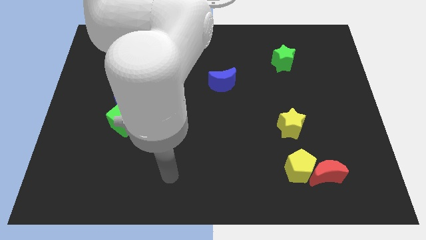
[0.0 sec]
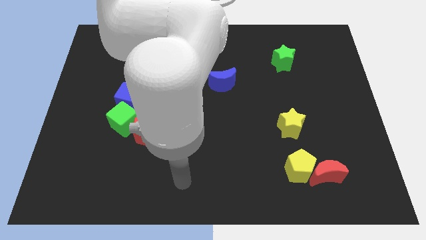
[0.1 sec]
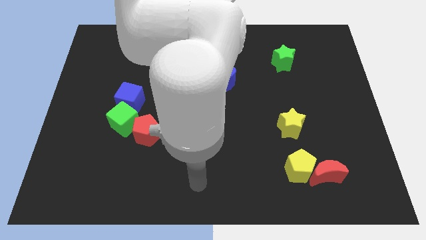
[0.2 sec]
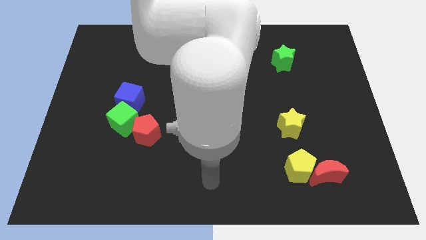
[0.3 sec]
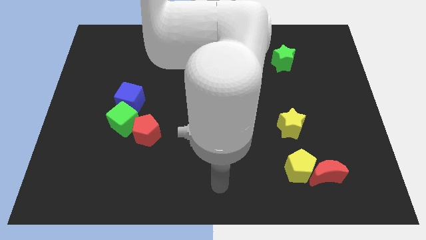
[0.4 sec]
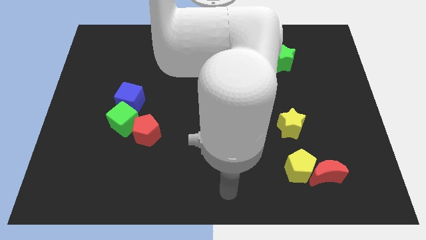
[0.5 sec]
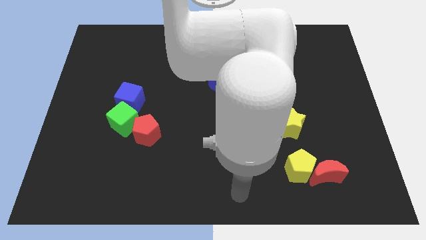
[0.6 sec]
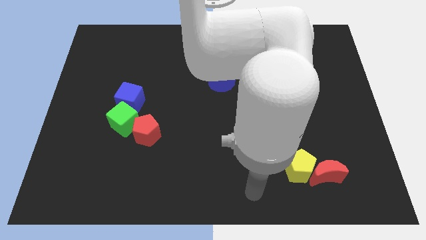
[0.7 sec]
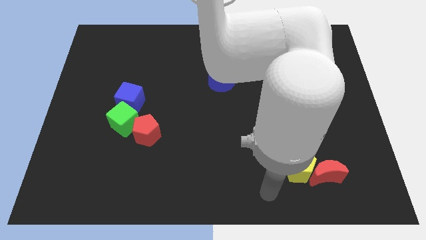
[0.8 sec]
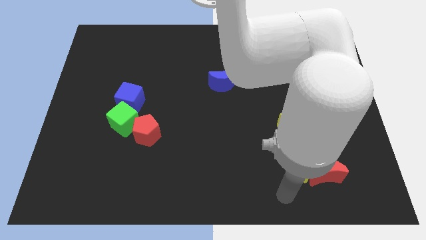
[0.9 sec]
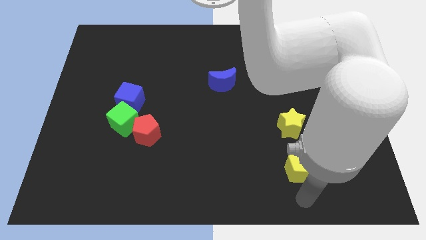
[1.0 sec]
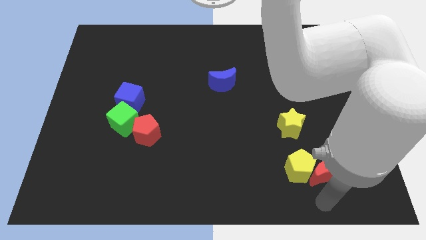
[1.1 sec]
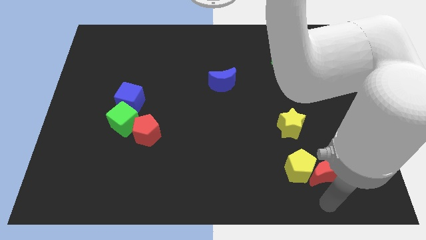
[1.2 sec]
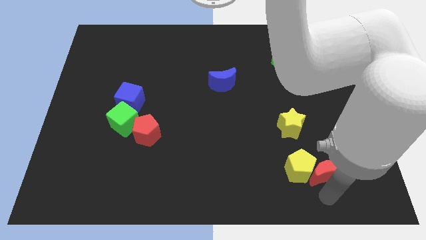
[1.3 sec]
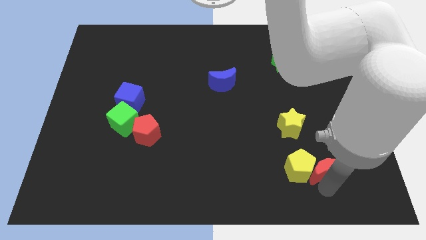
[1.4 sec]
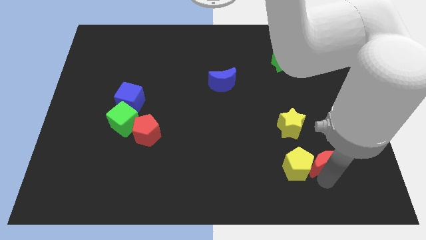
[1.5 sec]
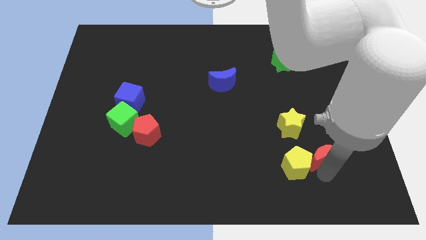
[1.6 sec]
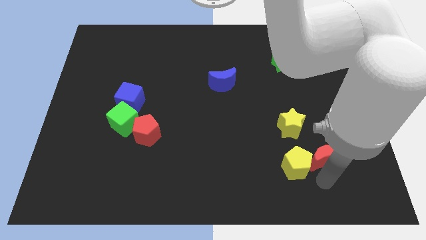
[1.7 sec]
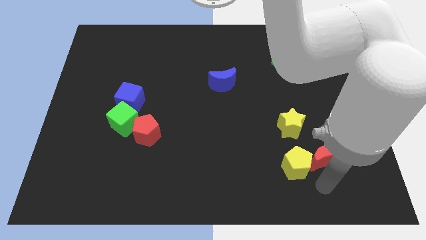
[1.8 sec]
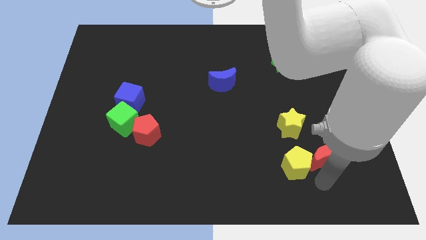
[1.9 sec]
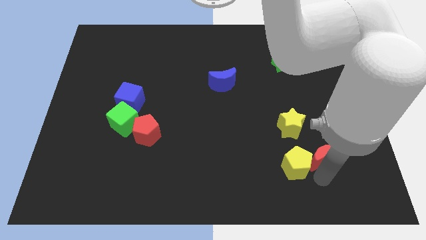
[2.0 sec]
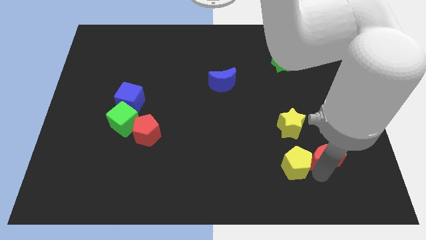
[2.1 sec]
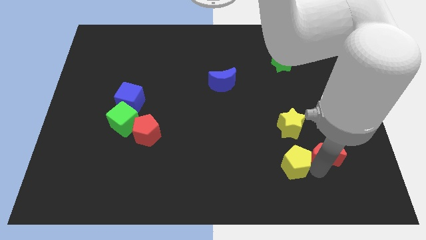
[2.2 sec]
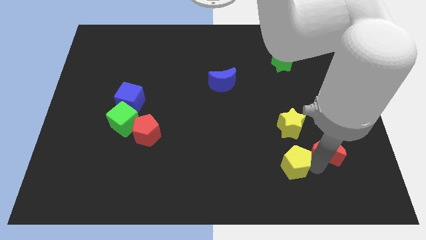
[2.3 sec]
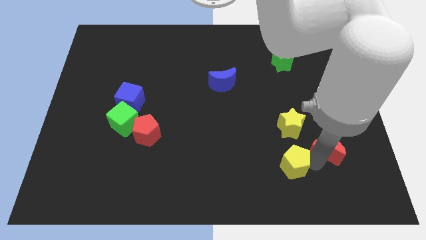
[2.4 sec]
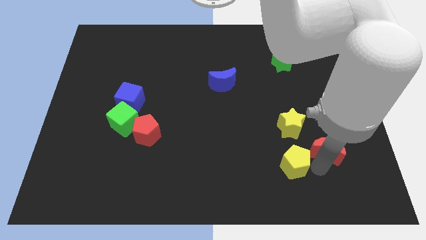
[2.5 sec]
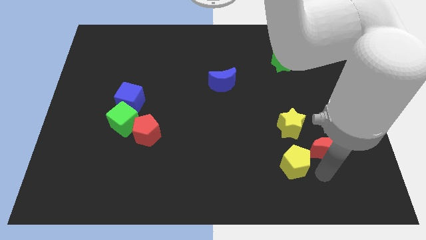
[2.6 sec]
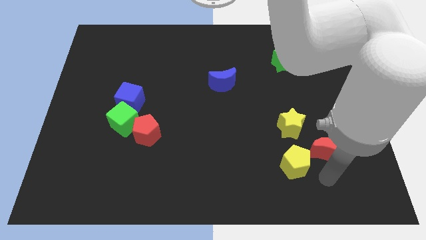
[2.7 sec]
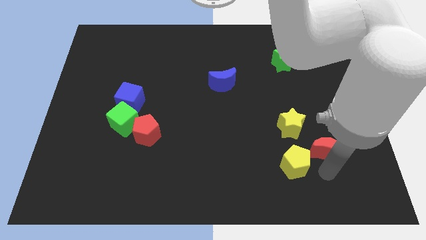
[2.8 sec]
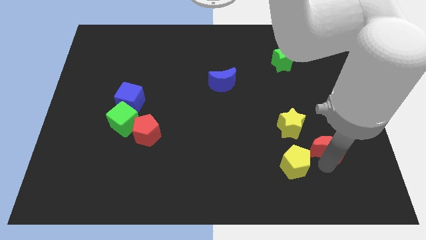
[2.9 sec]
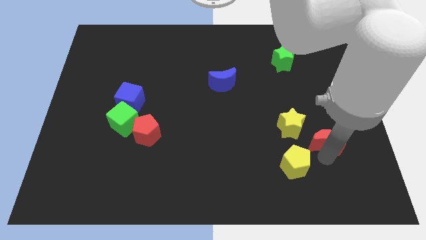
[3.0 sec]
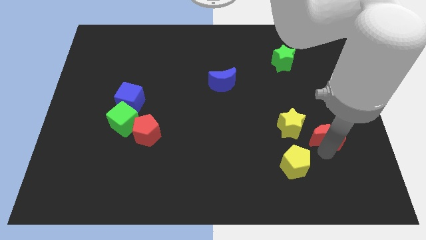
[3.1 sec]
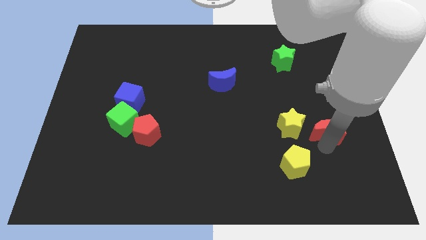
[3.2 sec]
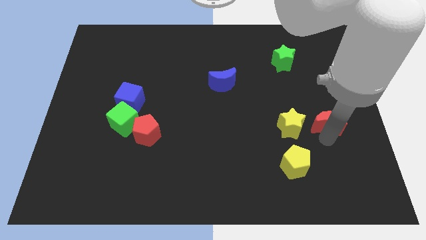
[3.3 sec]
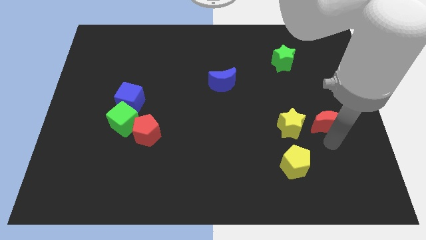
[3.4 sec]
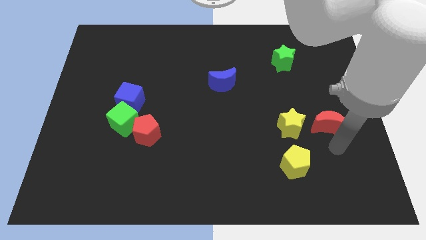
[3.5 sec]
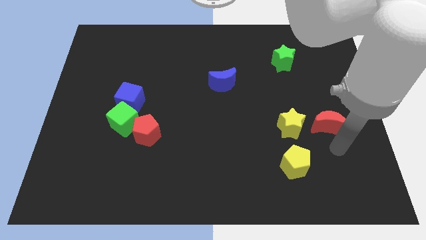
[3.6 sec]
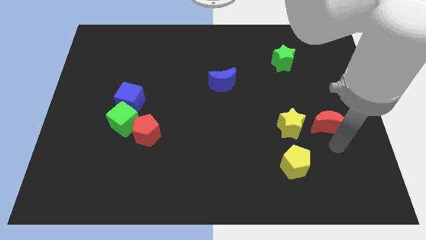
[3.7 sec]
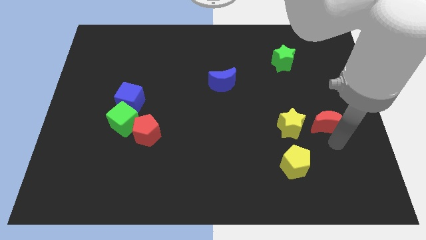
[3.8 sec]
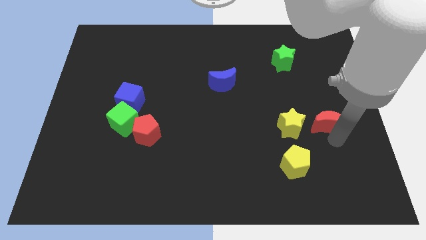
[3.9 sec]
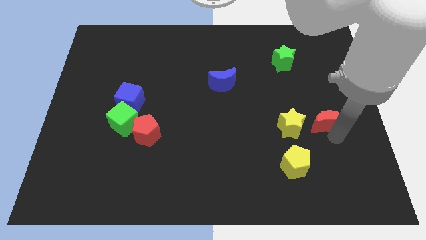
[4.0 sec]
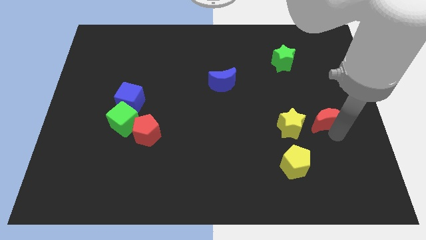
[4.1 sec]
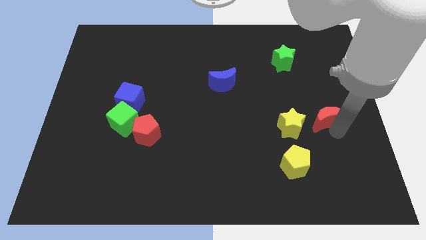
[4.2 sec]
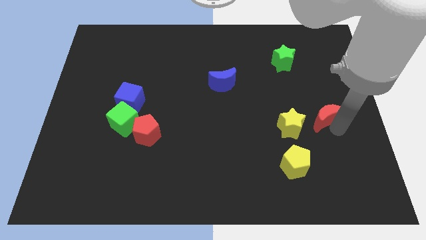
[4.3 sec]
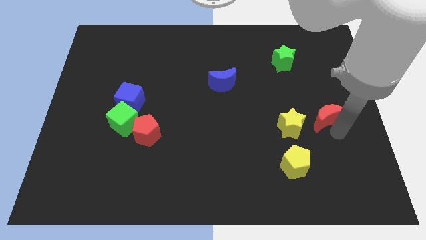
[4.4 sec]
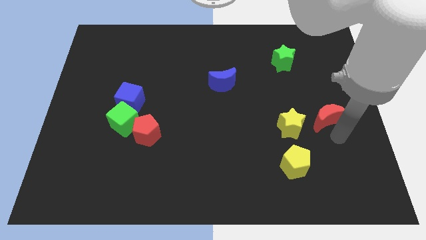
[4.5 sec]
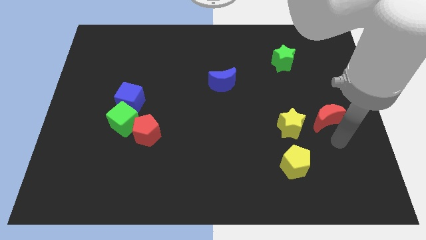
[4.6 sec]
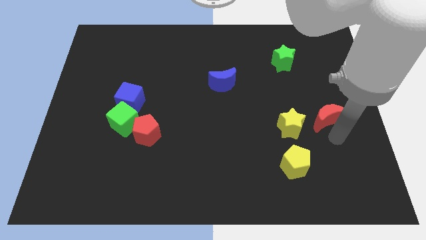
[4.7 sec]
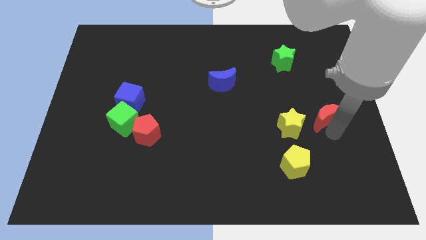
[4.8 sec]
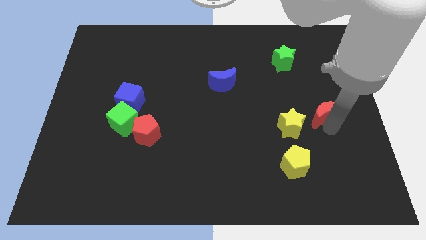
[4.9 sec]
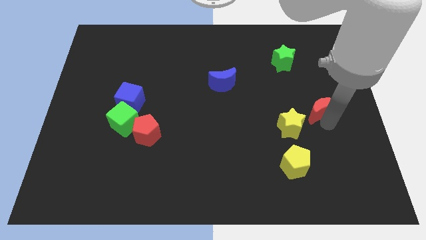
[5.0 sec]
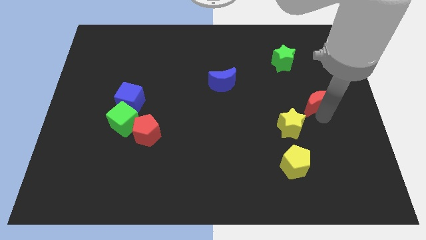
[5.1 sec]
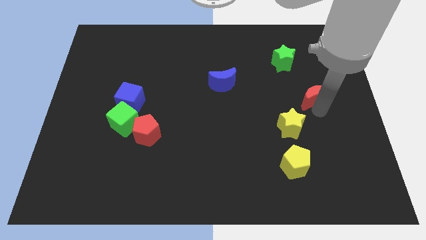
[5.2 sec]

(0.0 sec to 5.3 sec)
slide the red moon up

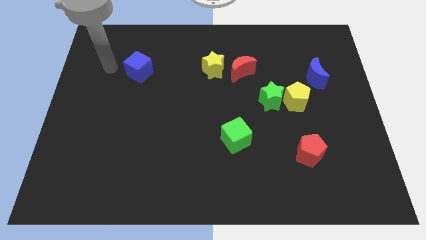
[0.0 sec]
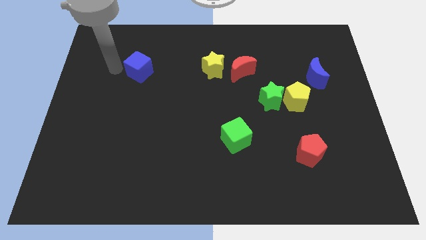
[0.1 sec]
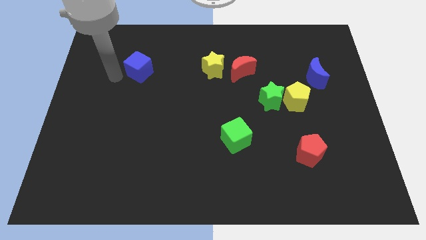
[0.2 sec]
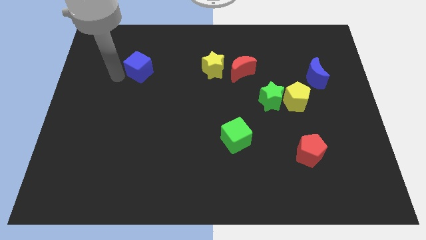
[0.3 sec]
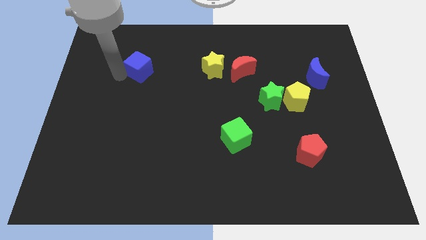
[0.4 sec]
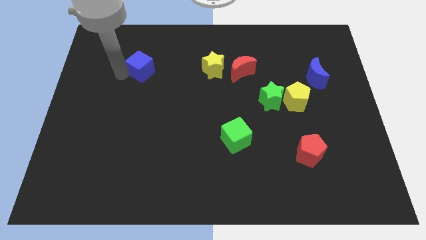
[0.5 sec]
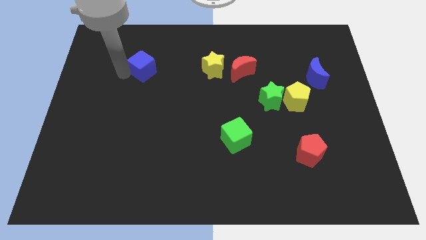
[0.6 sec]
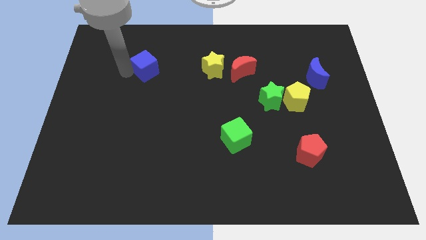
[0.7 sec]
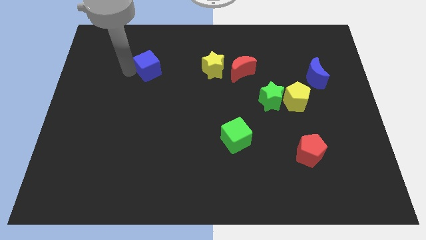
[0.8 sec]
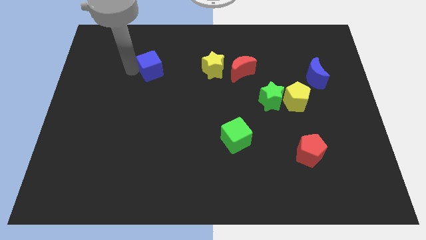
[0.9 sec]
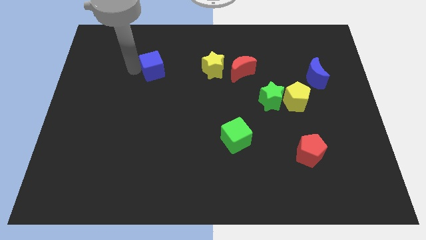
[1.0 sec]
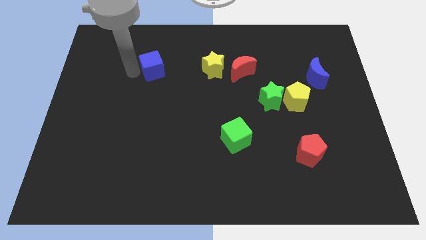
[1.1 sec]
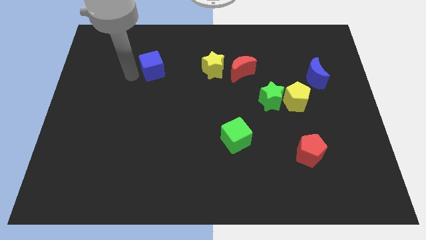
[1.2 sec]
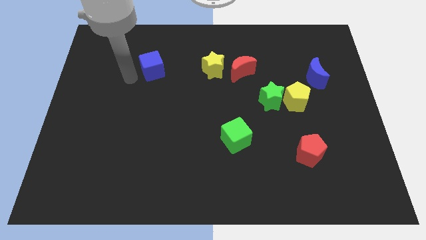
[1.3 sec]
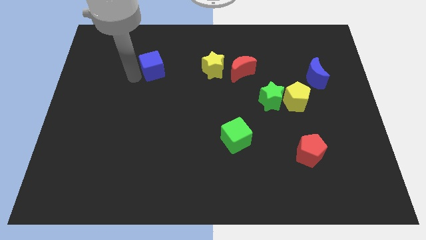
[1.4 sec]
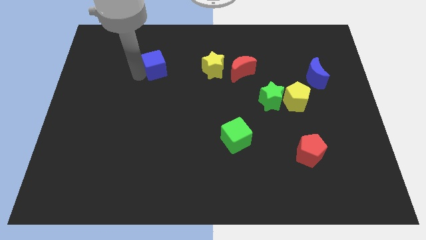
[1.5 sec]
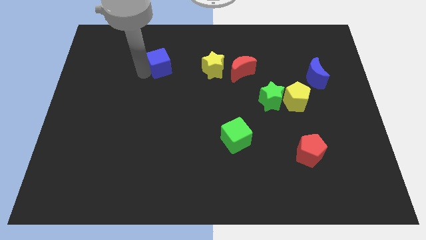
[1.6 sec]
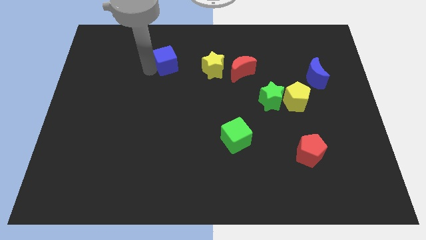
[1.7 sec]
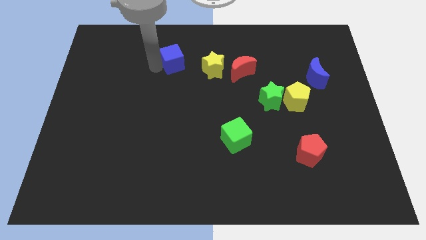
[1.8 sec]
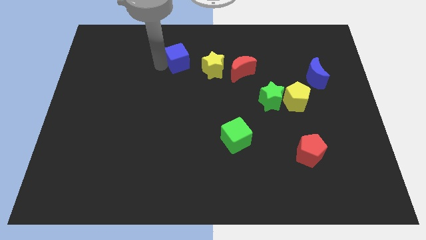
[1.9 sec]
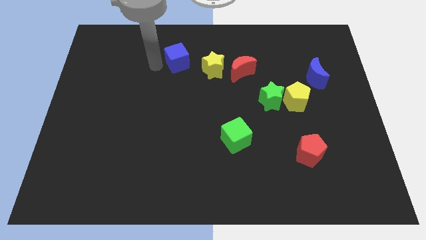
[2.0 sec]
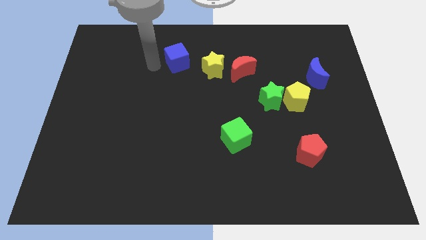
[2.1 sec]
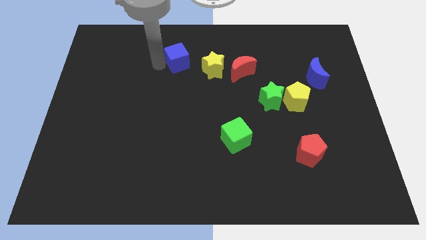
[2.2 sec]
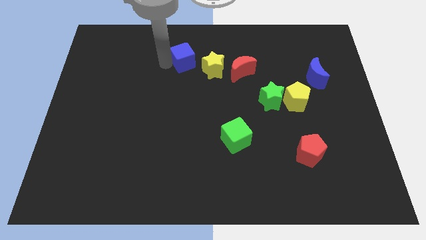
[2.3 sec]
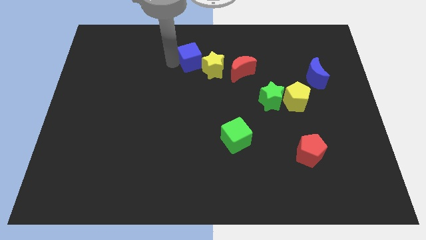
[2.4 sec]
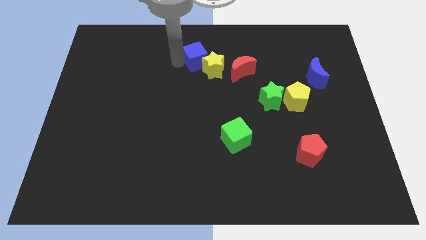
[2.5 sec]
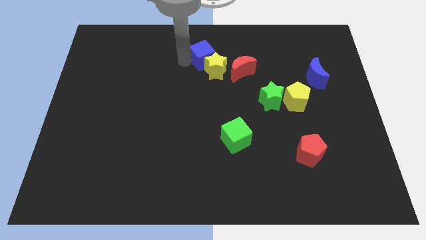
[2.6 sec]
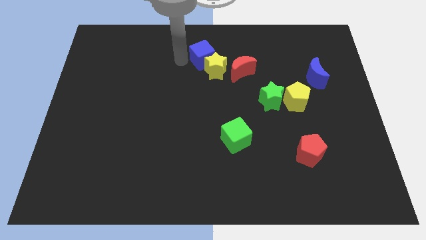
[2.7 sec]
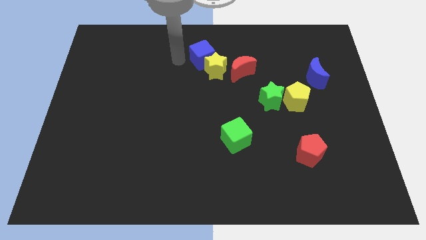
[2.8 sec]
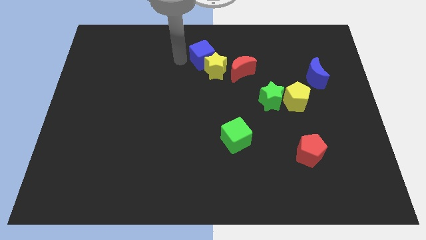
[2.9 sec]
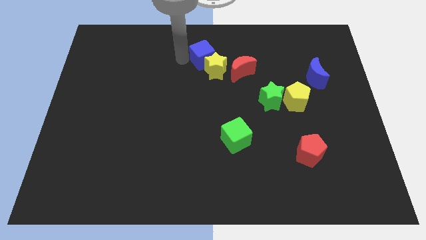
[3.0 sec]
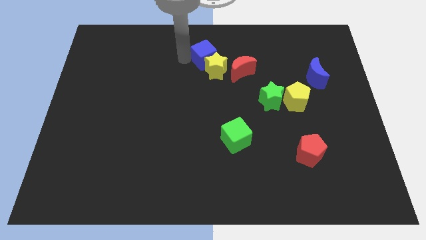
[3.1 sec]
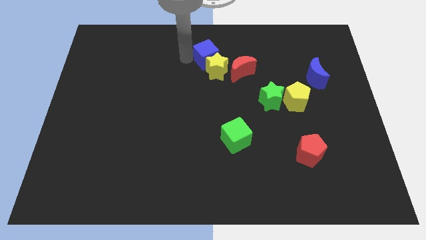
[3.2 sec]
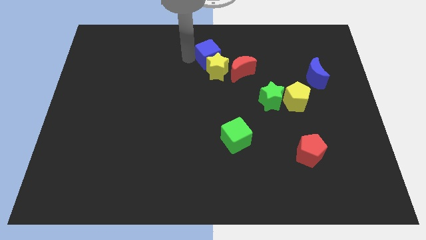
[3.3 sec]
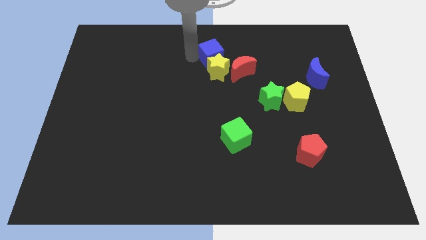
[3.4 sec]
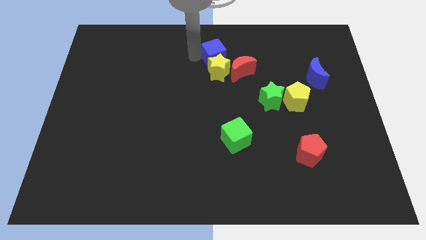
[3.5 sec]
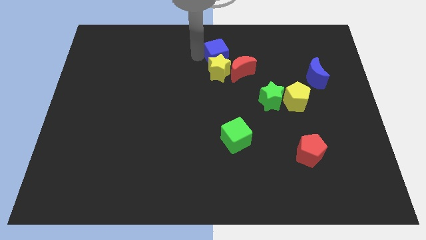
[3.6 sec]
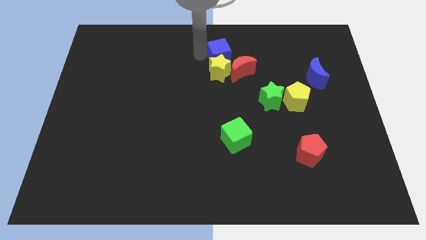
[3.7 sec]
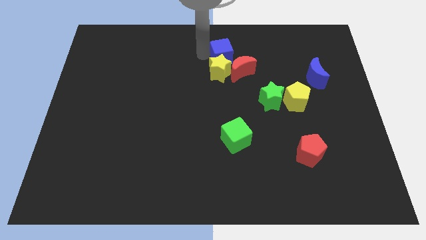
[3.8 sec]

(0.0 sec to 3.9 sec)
slide the blue cube to the right
